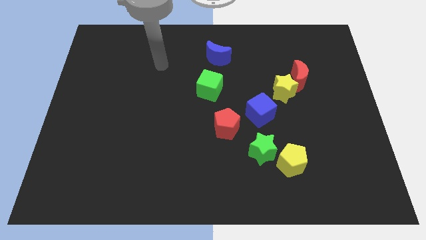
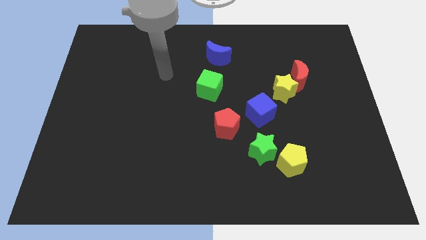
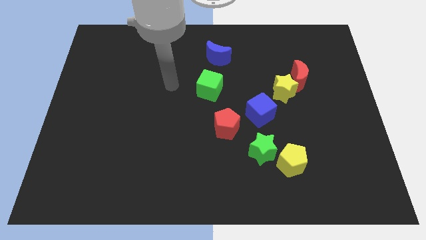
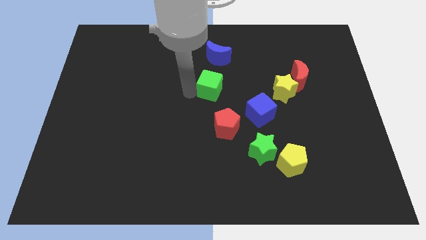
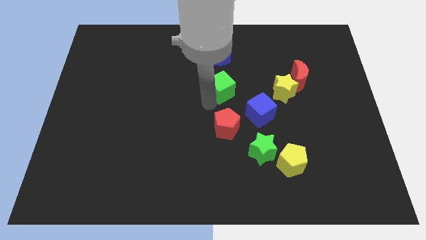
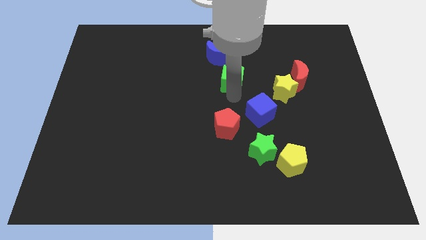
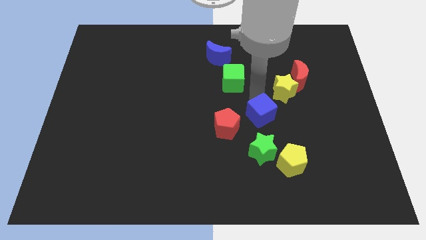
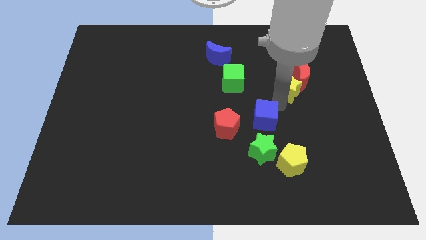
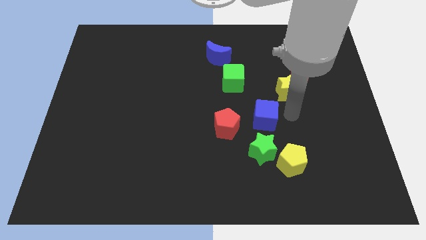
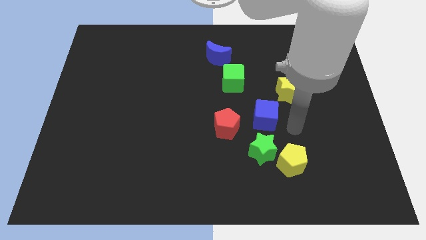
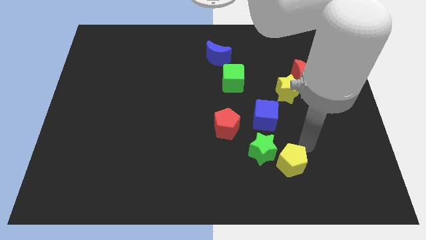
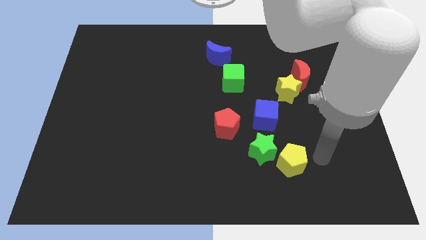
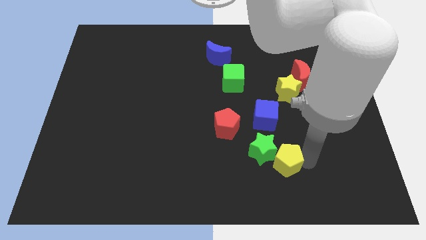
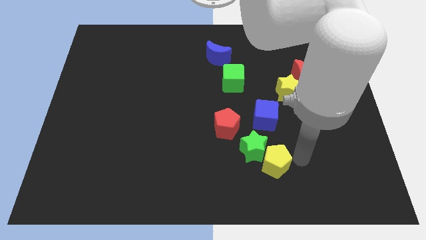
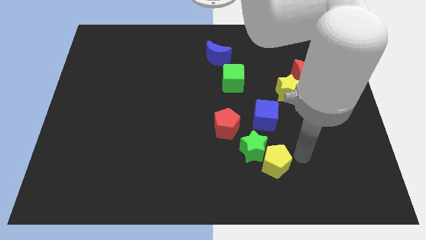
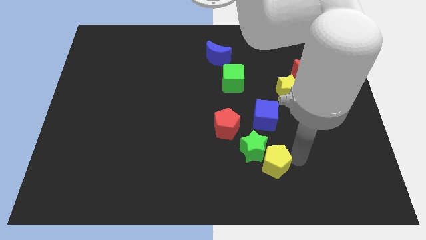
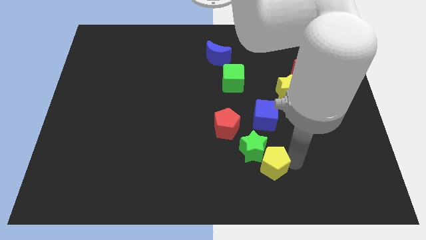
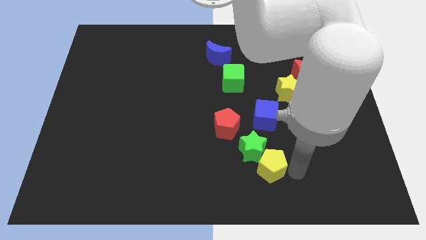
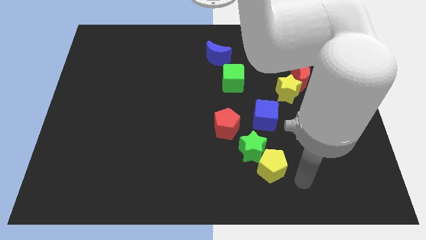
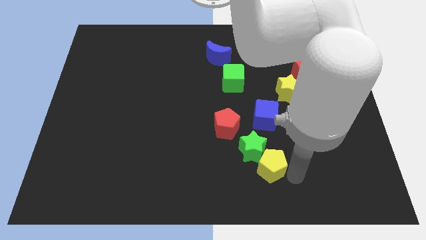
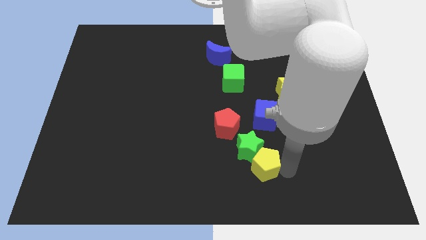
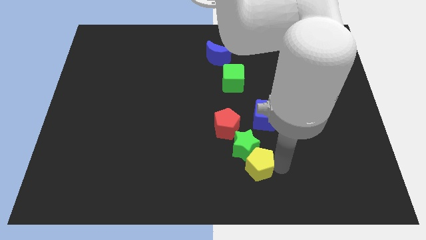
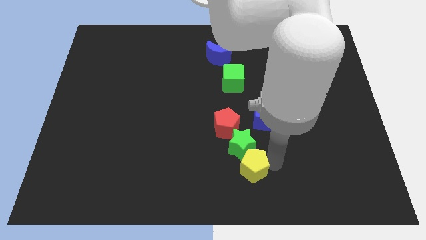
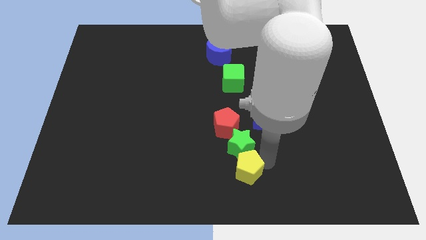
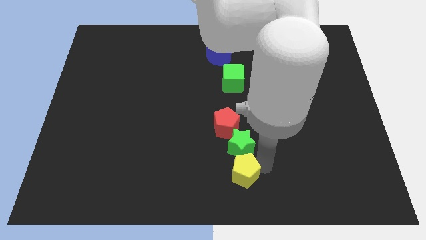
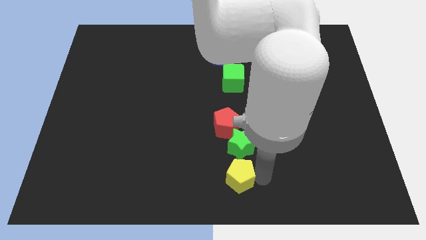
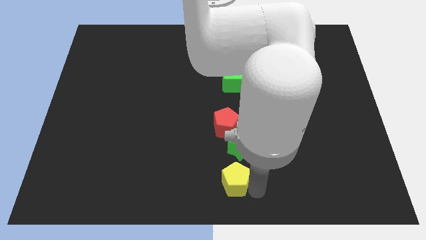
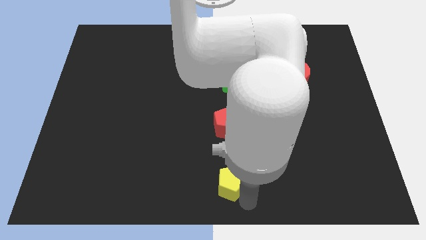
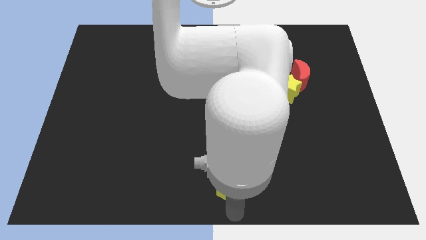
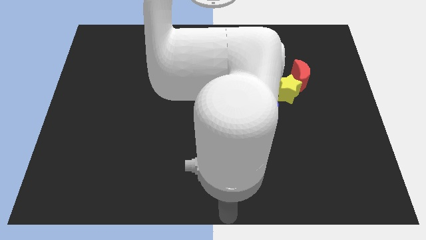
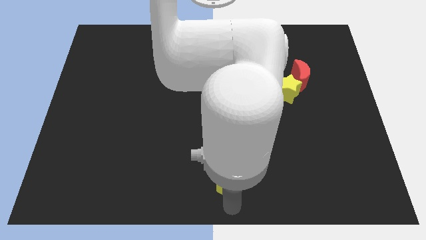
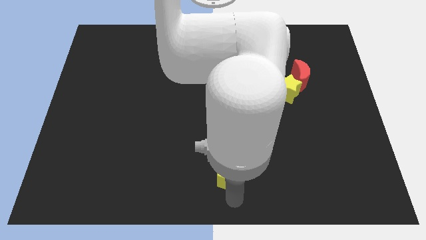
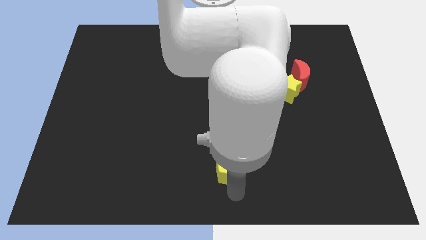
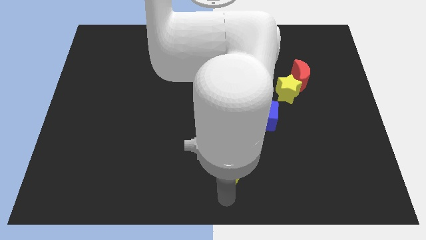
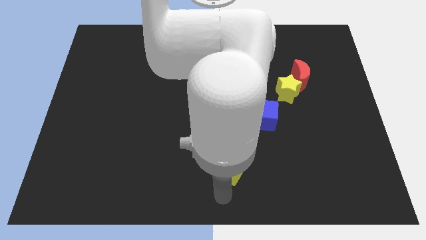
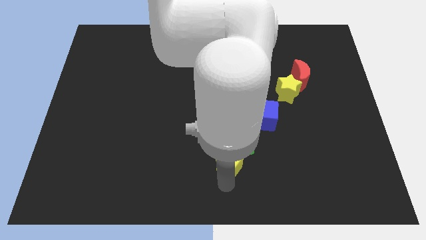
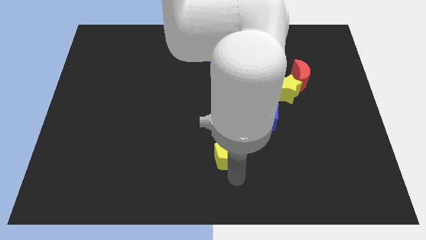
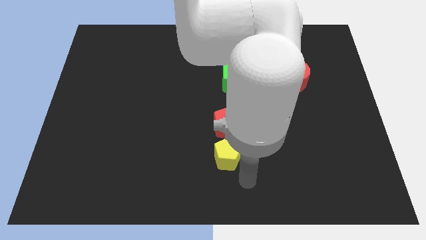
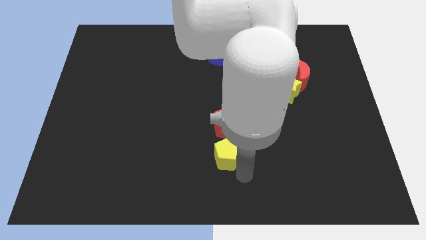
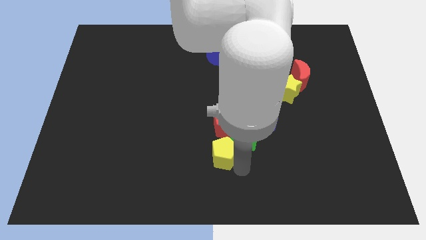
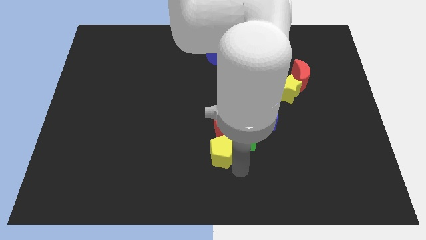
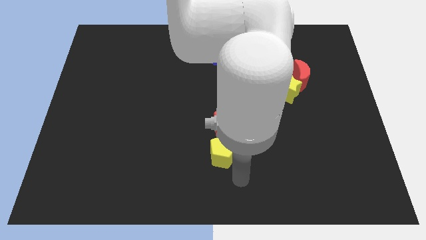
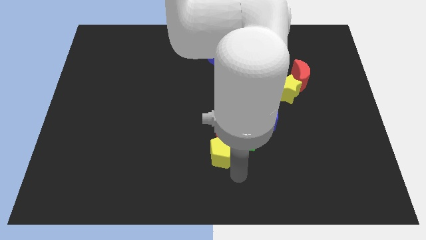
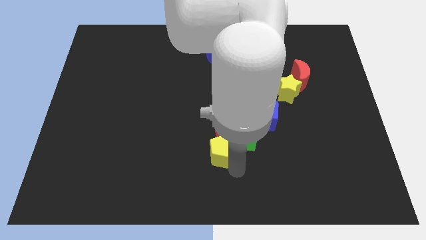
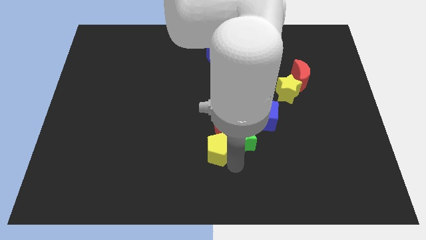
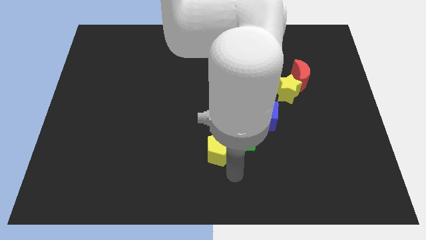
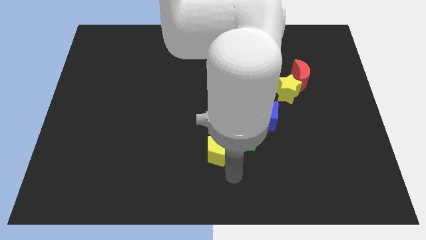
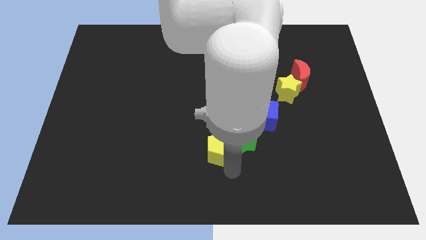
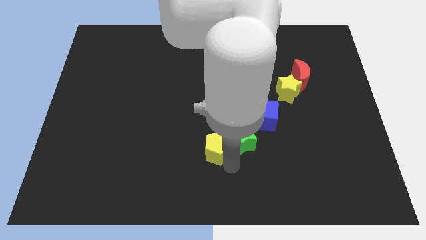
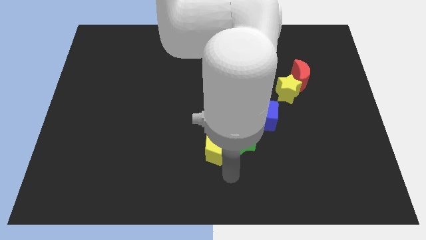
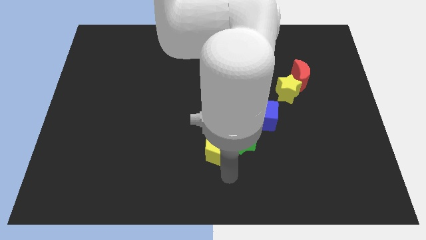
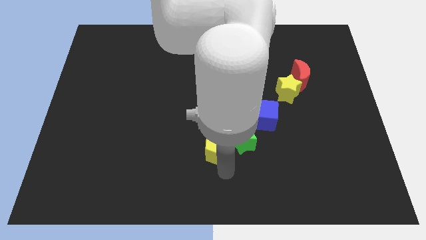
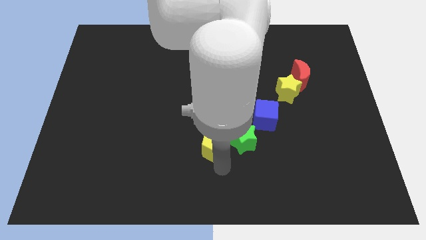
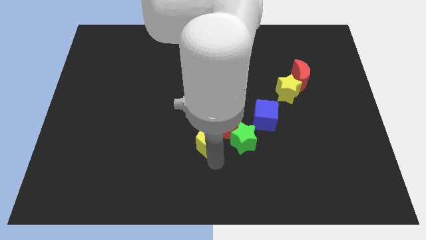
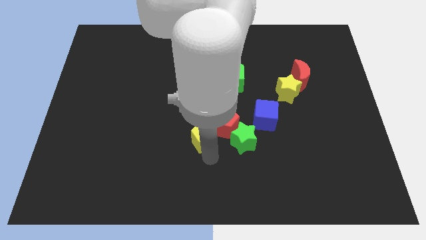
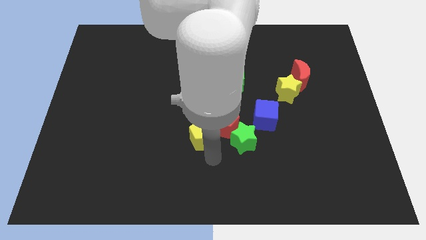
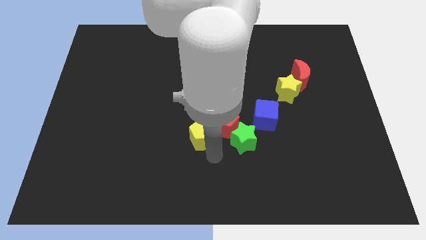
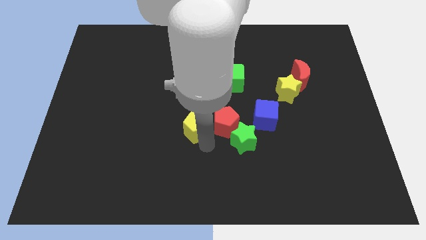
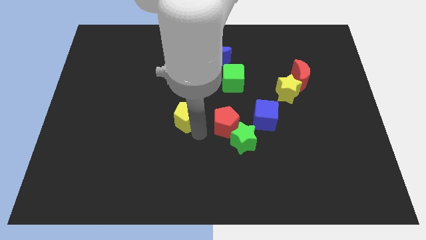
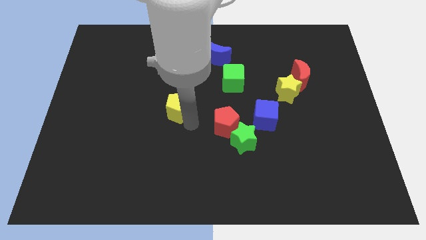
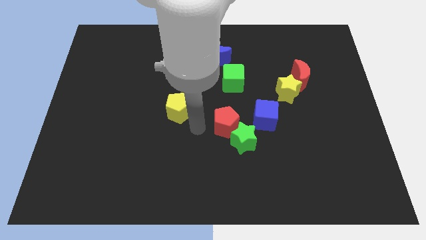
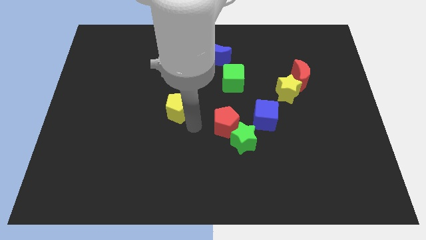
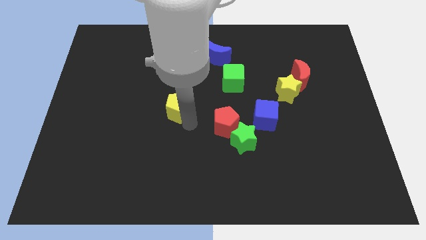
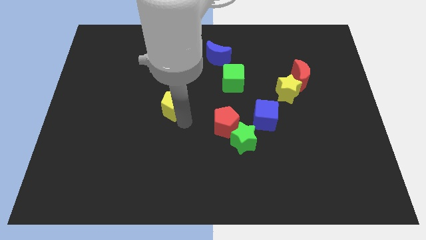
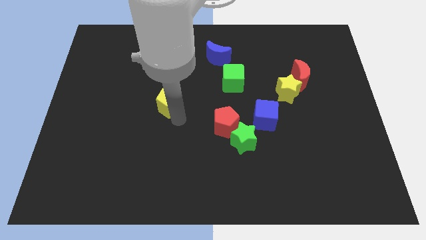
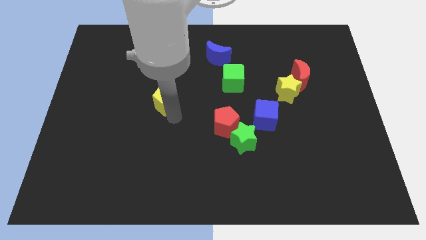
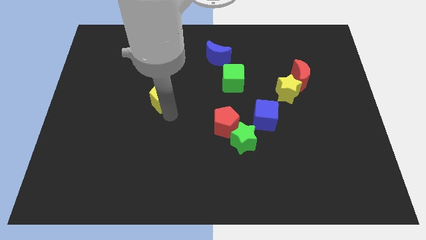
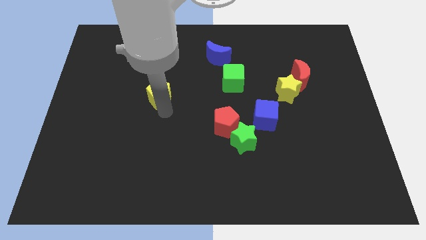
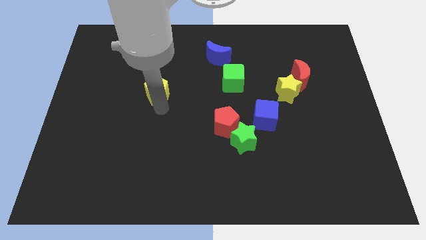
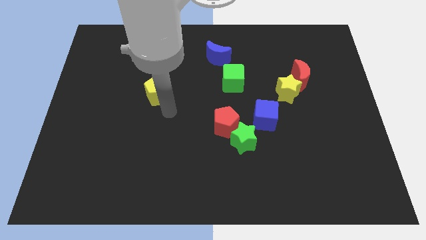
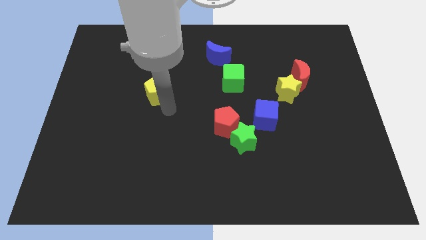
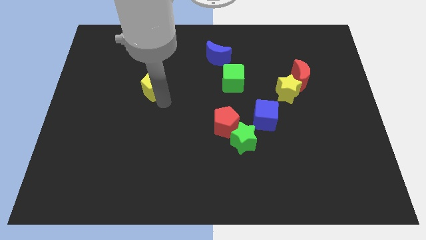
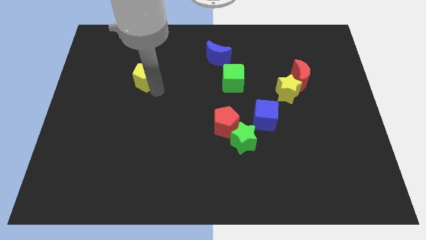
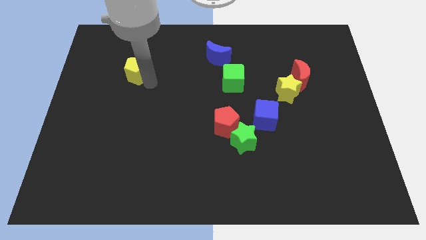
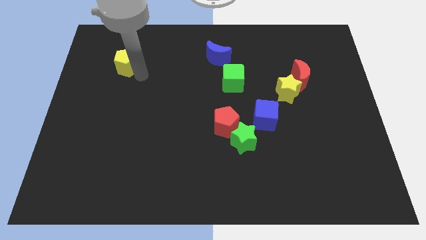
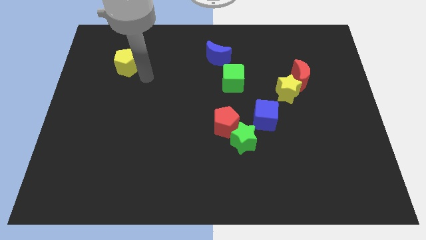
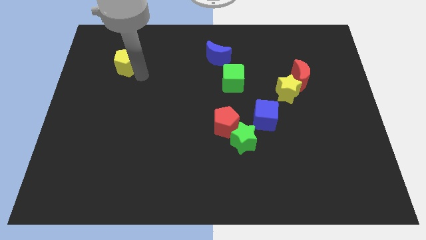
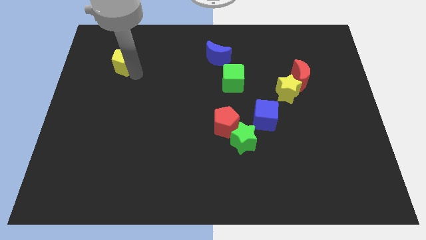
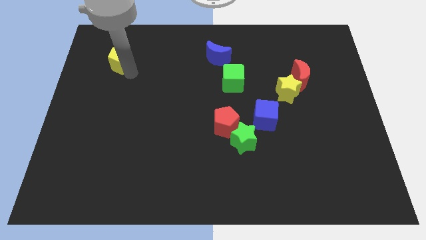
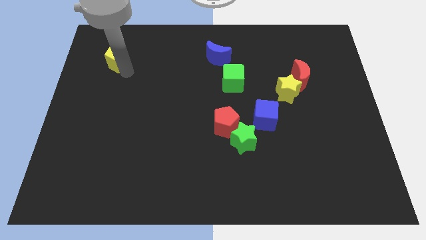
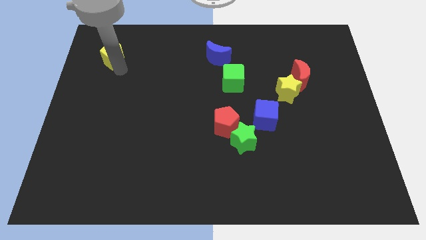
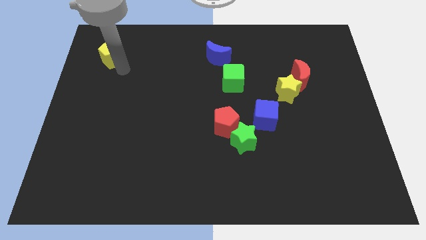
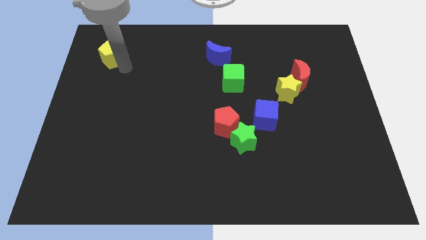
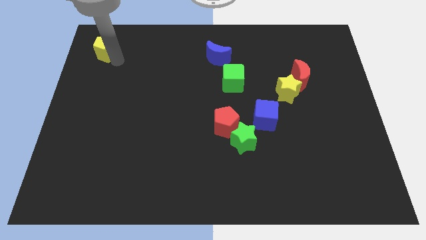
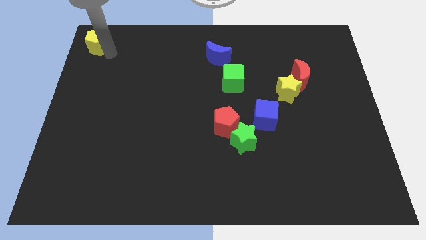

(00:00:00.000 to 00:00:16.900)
slide the yellow pentagon to the top left of the board
